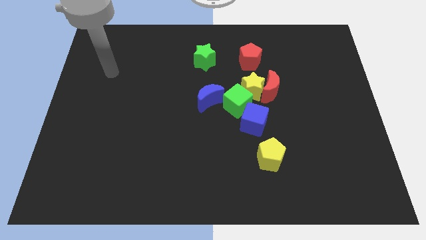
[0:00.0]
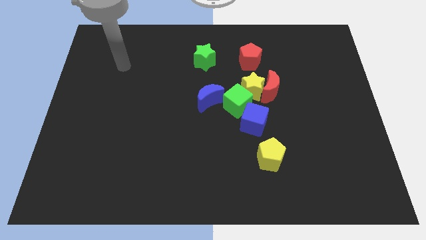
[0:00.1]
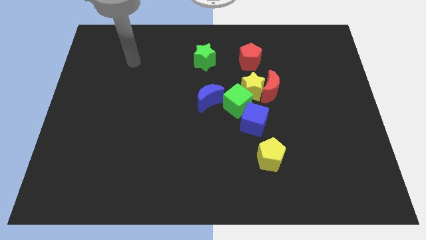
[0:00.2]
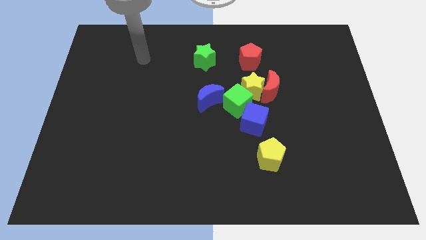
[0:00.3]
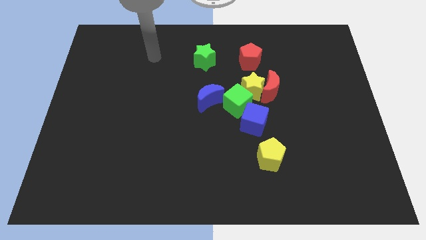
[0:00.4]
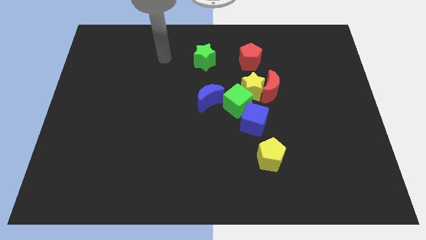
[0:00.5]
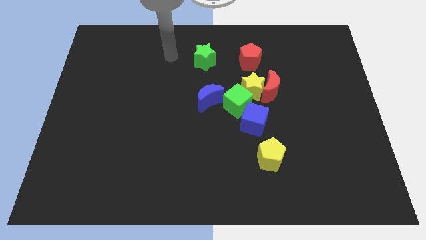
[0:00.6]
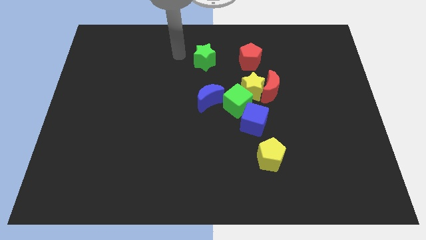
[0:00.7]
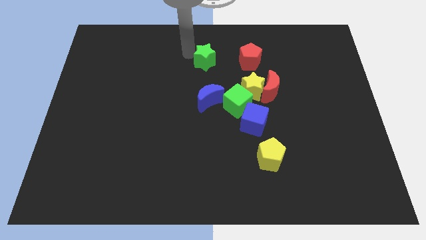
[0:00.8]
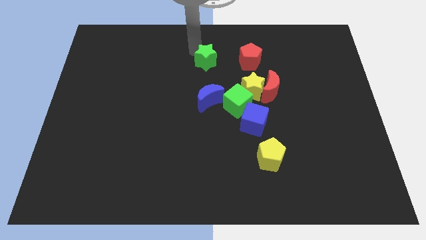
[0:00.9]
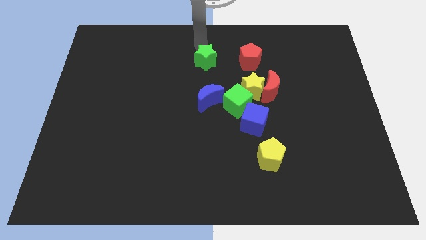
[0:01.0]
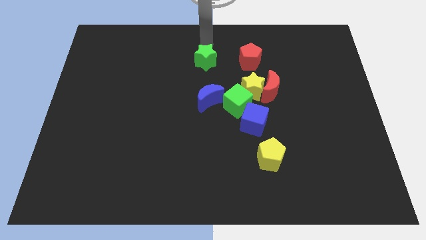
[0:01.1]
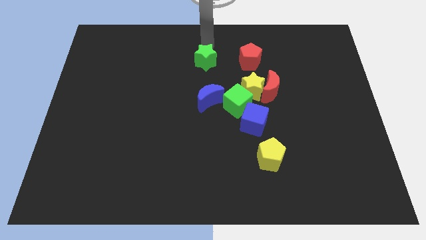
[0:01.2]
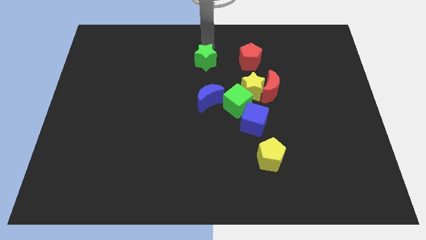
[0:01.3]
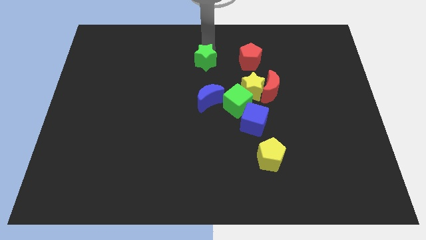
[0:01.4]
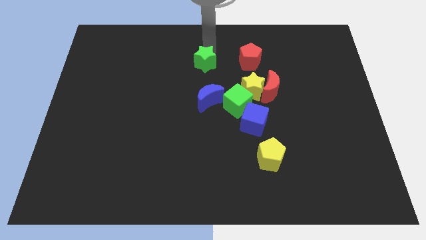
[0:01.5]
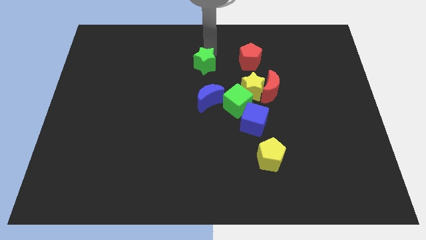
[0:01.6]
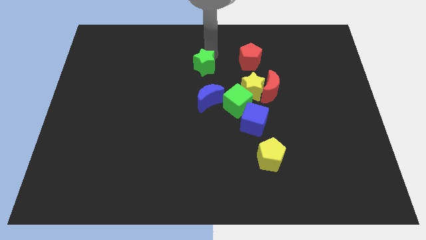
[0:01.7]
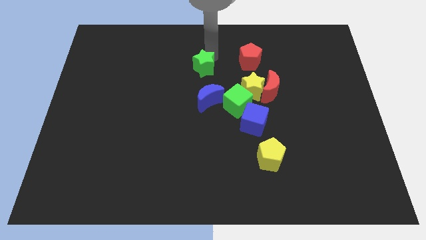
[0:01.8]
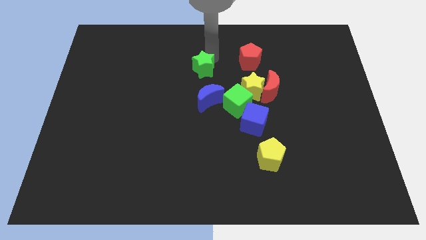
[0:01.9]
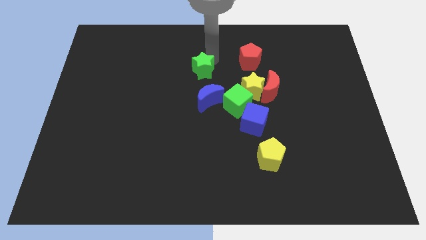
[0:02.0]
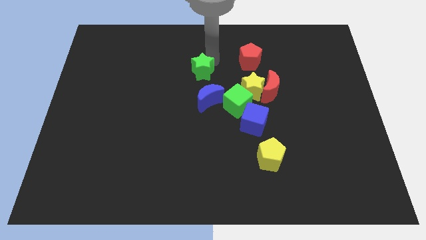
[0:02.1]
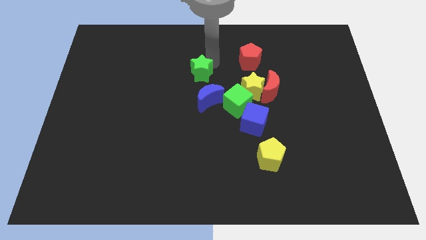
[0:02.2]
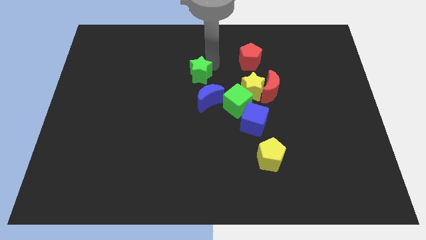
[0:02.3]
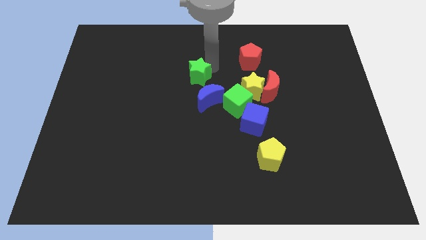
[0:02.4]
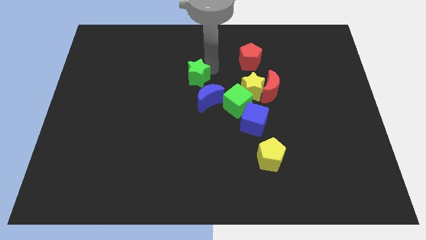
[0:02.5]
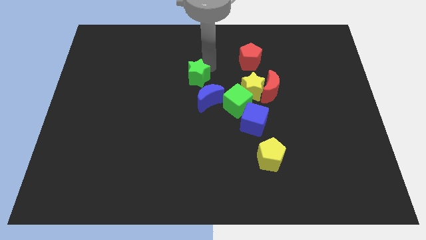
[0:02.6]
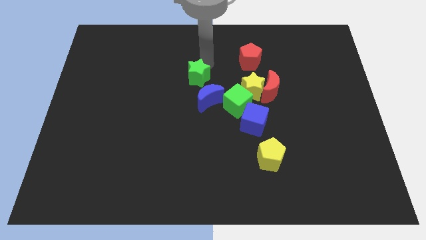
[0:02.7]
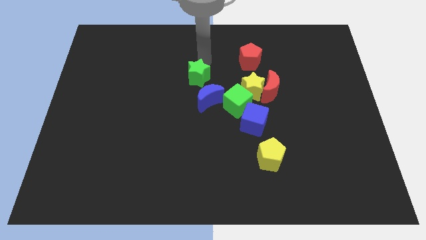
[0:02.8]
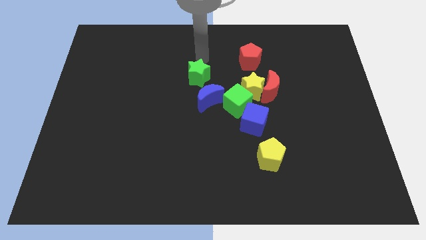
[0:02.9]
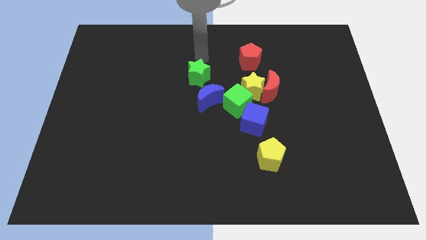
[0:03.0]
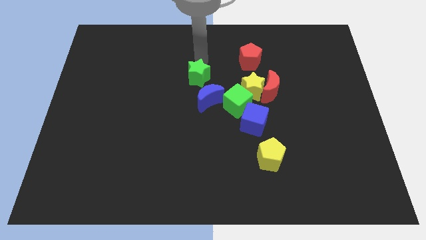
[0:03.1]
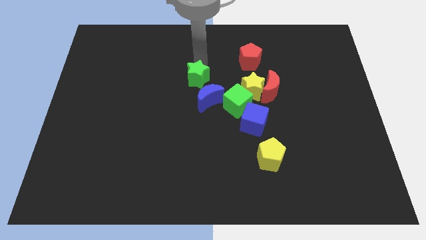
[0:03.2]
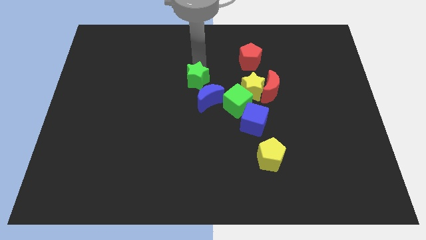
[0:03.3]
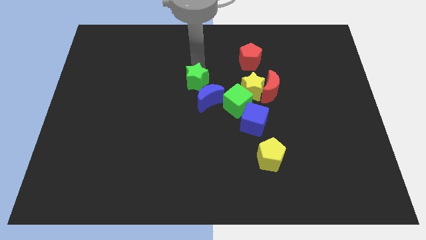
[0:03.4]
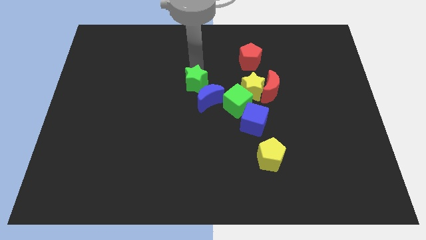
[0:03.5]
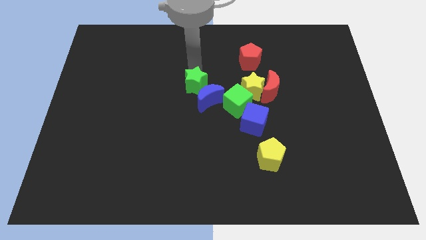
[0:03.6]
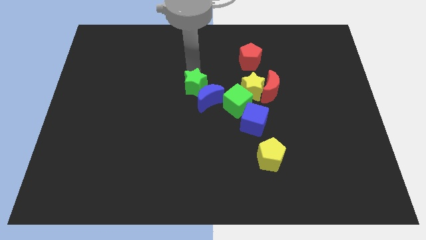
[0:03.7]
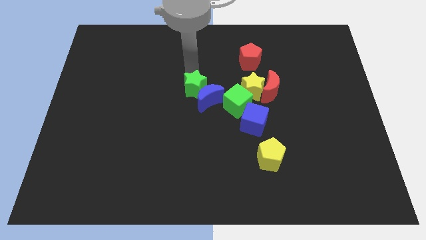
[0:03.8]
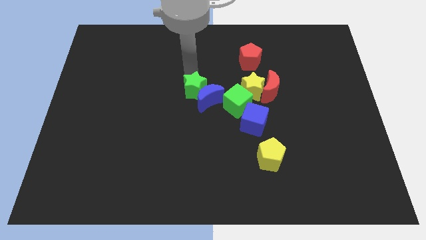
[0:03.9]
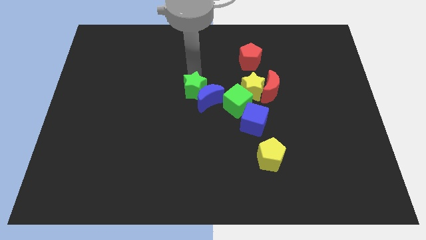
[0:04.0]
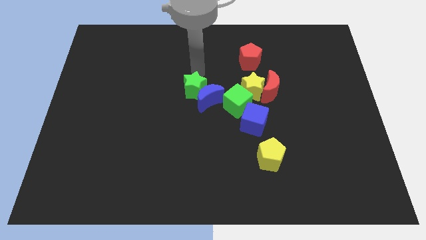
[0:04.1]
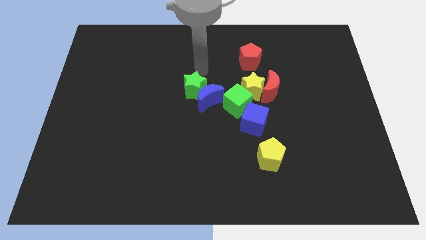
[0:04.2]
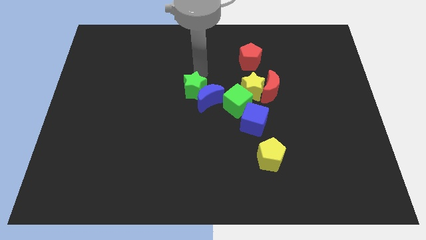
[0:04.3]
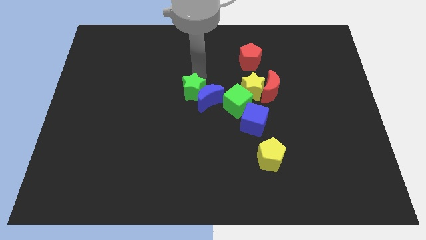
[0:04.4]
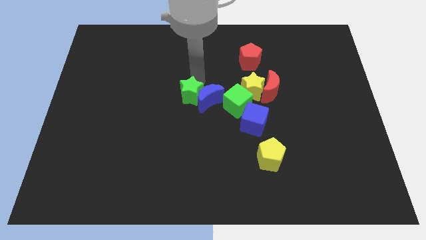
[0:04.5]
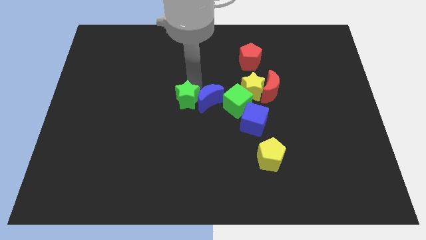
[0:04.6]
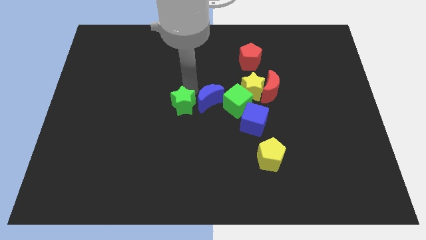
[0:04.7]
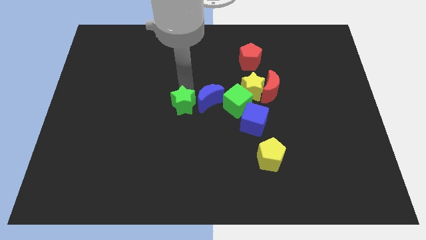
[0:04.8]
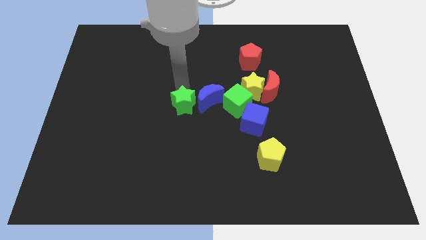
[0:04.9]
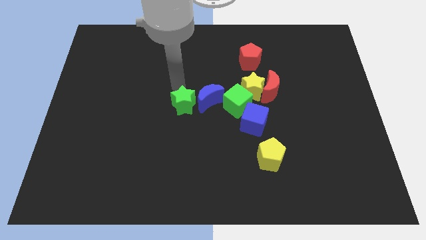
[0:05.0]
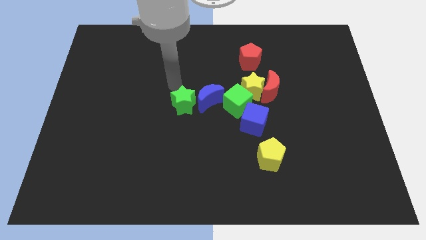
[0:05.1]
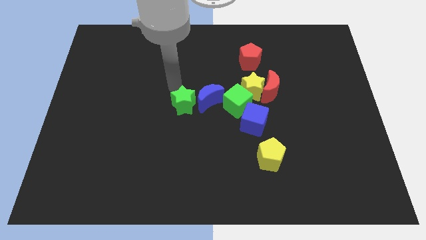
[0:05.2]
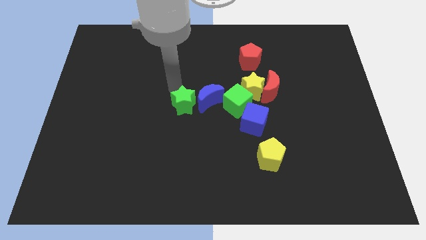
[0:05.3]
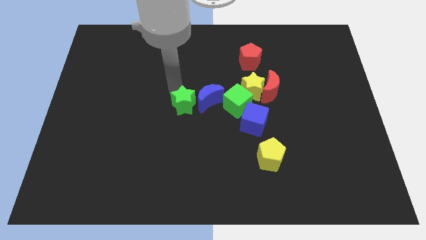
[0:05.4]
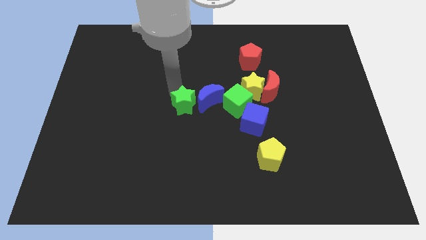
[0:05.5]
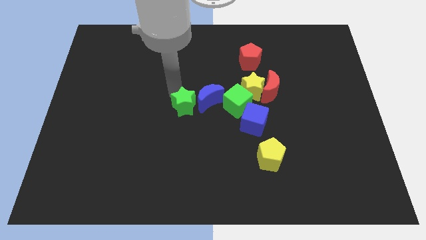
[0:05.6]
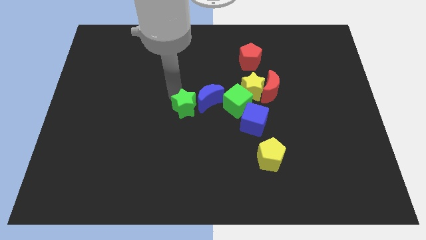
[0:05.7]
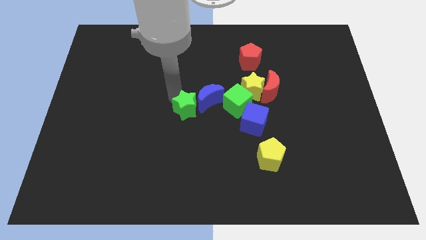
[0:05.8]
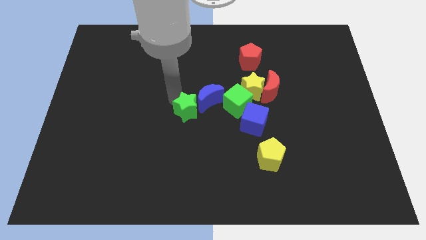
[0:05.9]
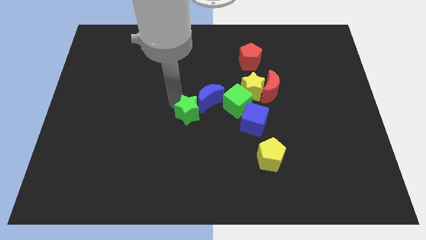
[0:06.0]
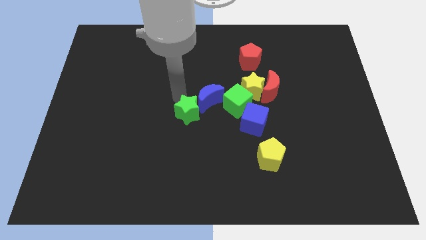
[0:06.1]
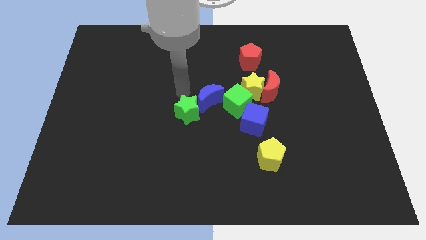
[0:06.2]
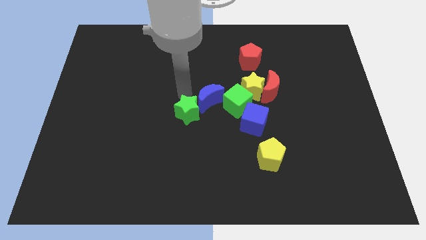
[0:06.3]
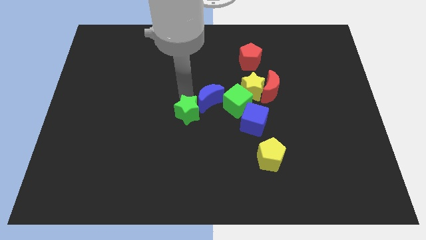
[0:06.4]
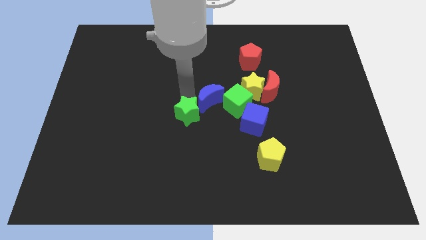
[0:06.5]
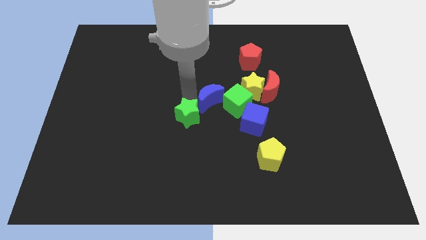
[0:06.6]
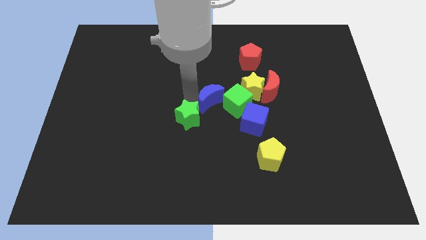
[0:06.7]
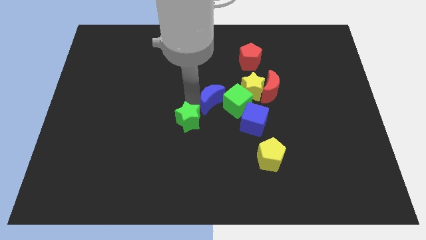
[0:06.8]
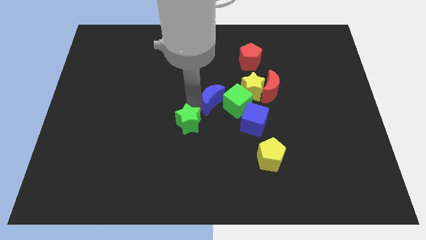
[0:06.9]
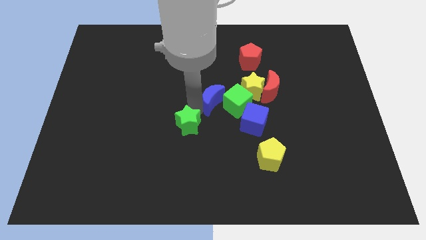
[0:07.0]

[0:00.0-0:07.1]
move the green star down

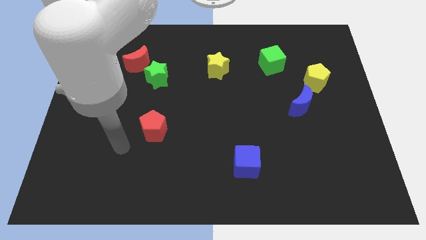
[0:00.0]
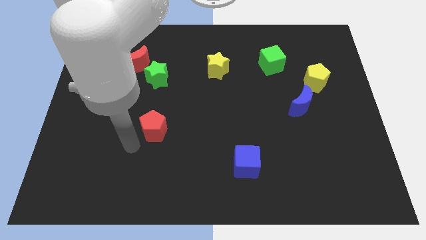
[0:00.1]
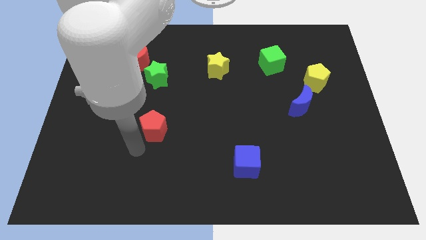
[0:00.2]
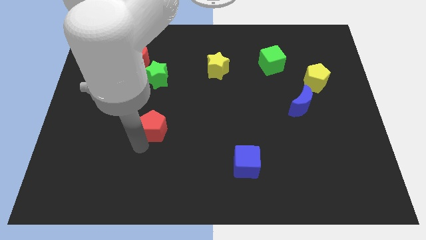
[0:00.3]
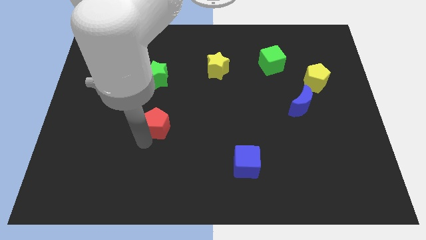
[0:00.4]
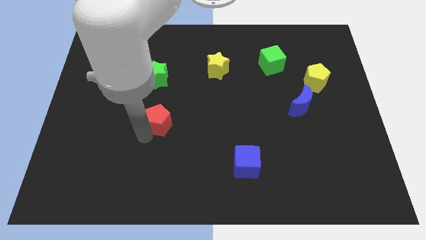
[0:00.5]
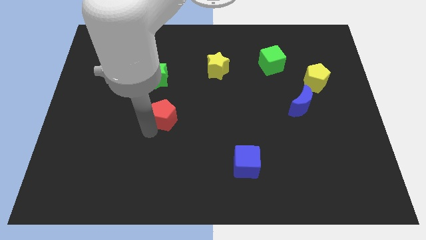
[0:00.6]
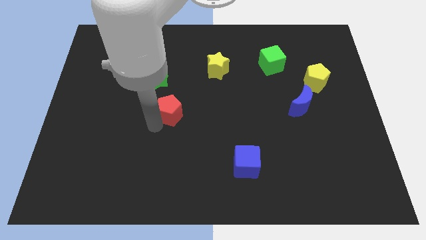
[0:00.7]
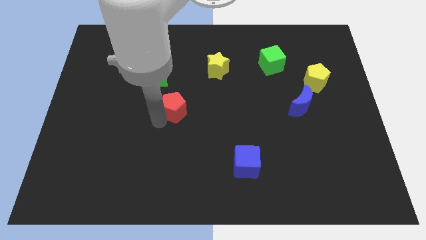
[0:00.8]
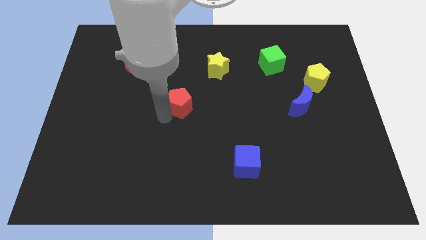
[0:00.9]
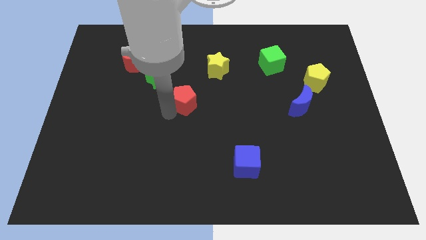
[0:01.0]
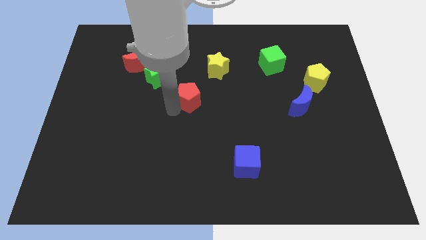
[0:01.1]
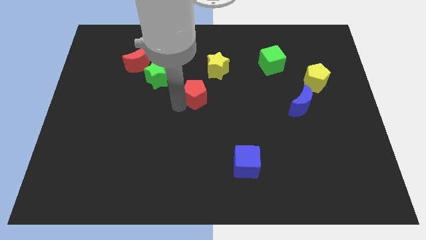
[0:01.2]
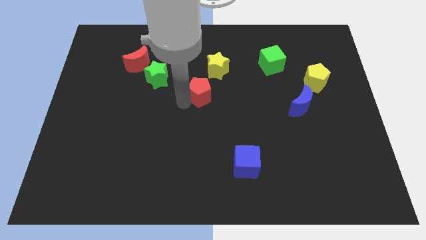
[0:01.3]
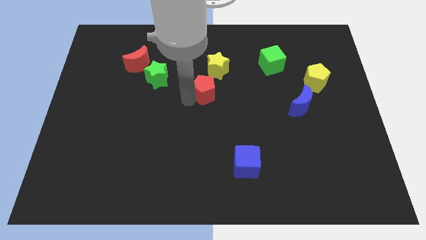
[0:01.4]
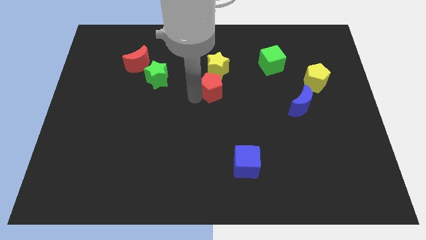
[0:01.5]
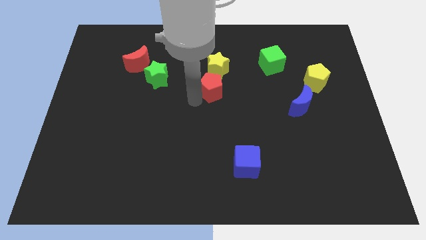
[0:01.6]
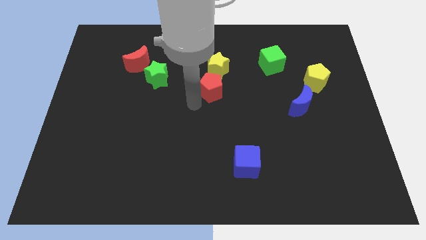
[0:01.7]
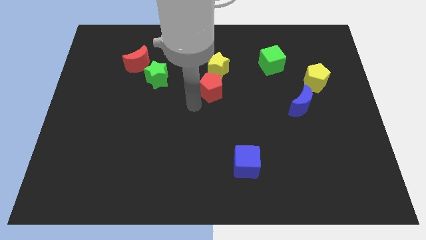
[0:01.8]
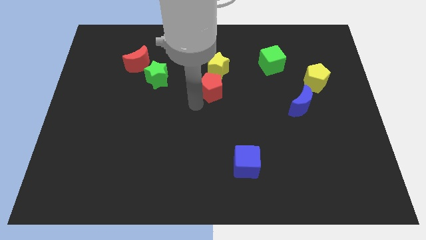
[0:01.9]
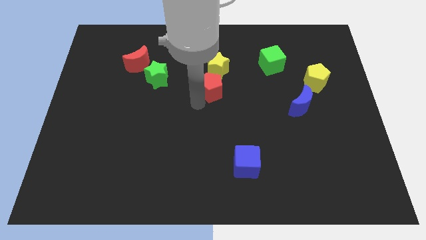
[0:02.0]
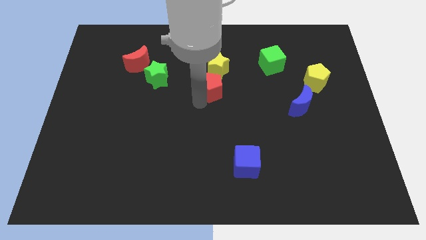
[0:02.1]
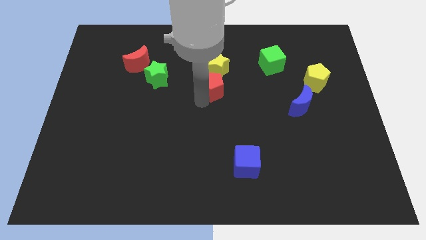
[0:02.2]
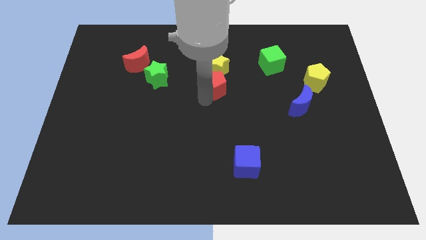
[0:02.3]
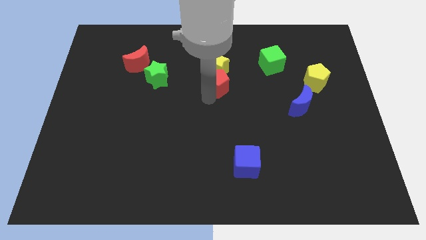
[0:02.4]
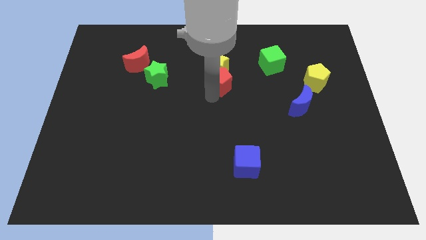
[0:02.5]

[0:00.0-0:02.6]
slide the red pentagon up and right diagonally
